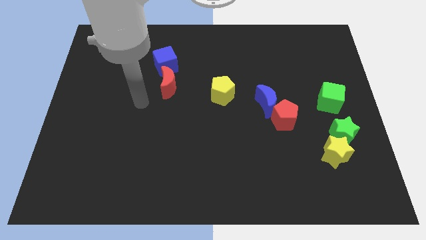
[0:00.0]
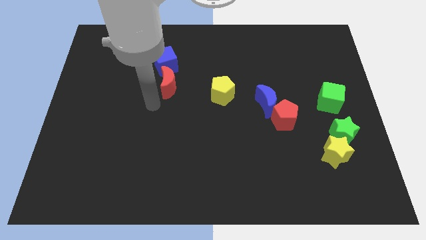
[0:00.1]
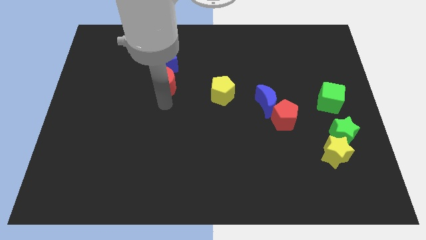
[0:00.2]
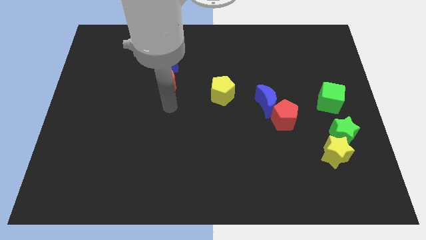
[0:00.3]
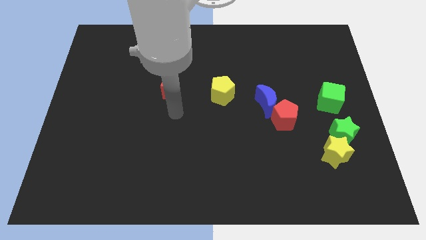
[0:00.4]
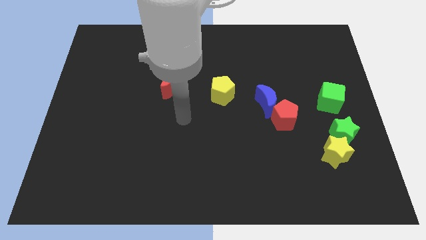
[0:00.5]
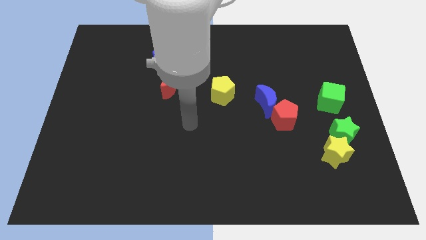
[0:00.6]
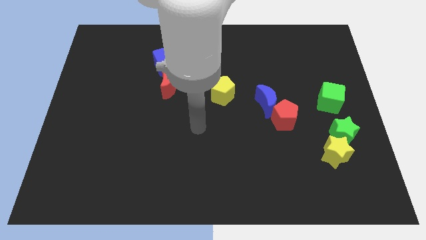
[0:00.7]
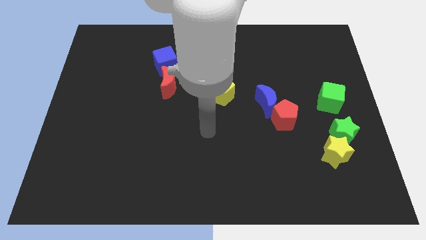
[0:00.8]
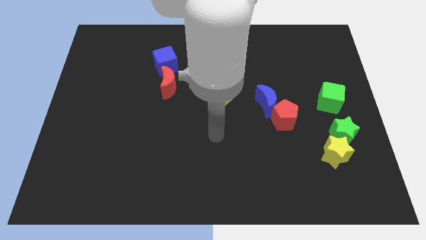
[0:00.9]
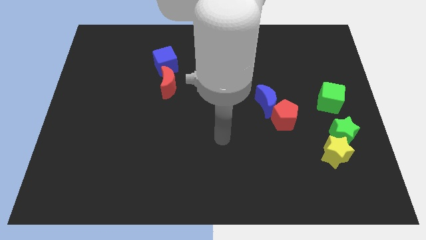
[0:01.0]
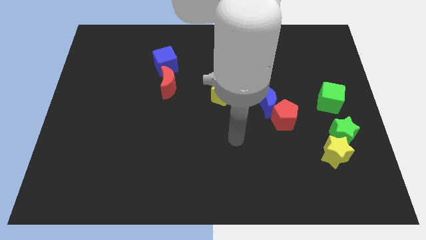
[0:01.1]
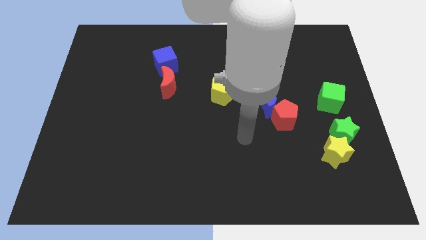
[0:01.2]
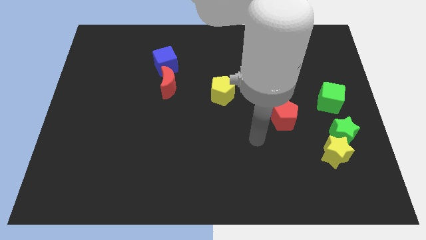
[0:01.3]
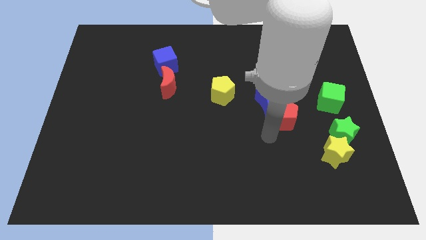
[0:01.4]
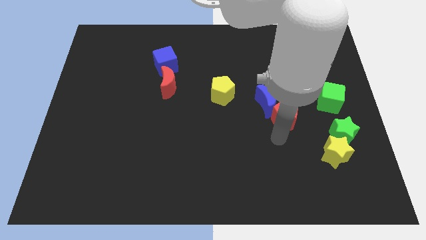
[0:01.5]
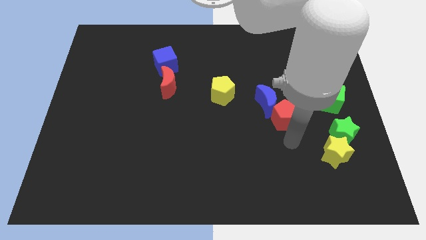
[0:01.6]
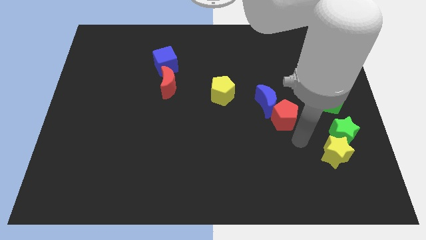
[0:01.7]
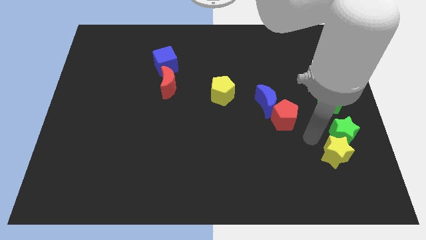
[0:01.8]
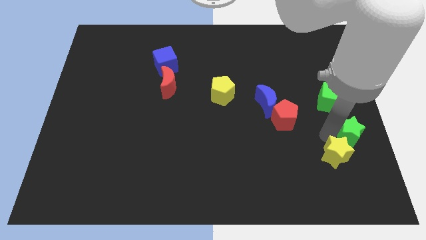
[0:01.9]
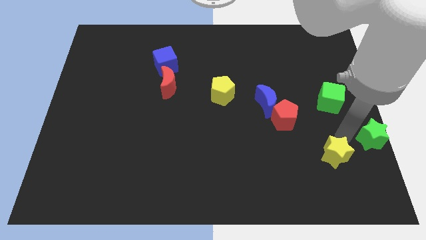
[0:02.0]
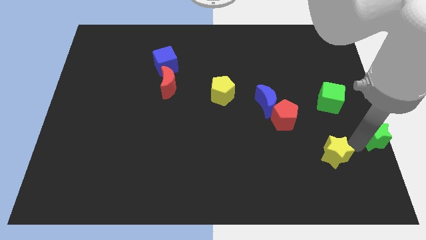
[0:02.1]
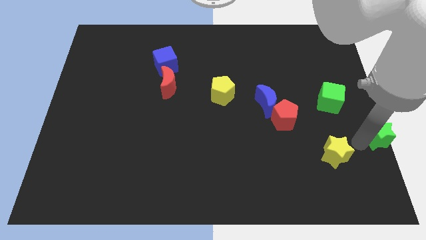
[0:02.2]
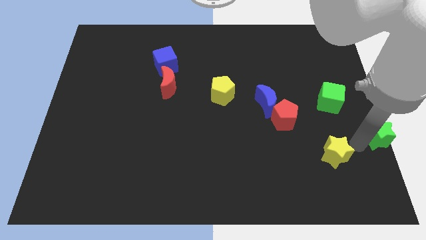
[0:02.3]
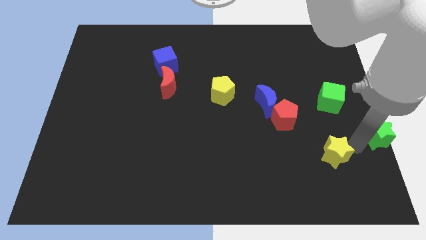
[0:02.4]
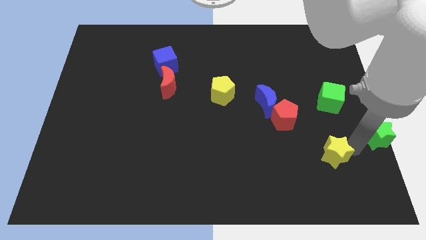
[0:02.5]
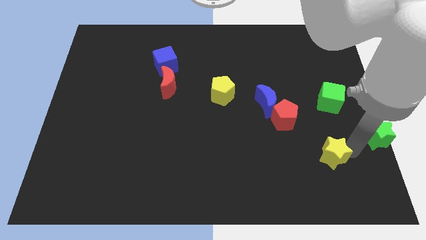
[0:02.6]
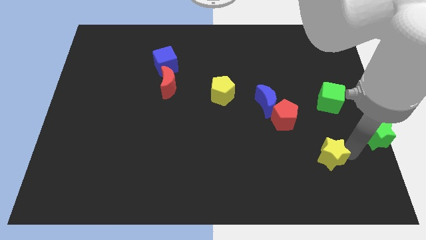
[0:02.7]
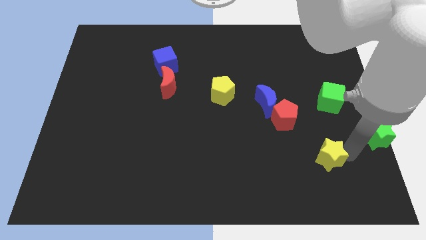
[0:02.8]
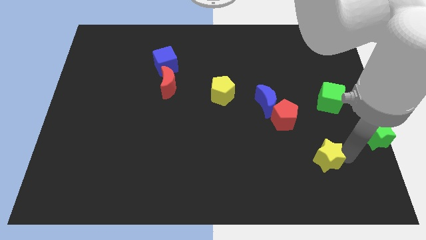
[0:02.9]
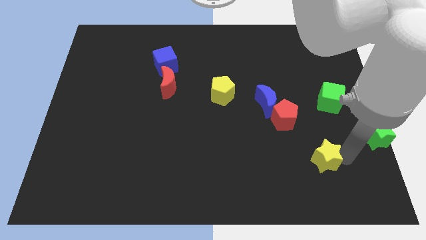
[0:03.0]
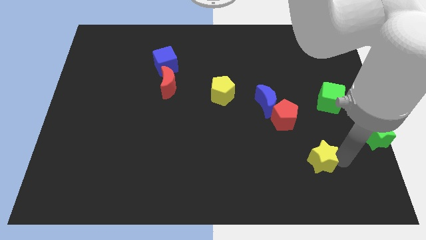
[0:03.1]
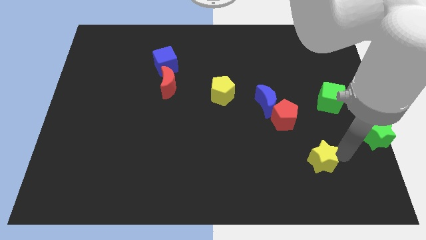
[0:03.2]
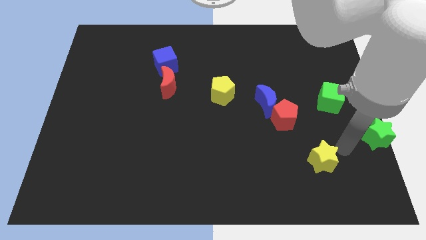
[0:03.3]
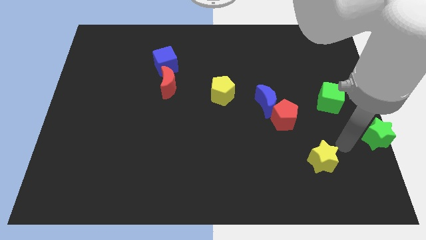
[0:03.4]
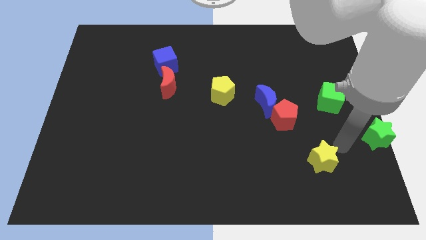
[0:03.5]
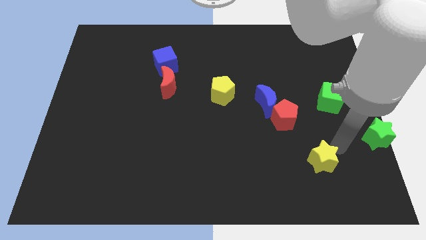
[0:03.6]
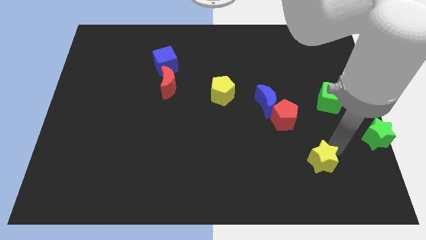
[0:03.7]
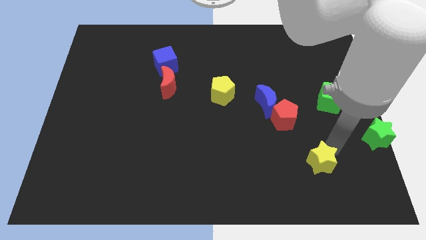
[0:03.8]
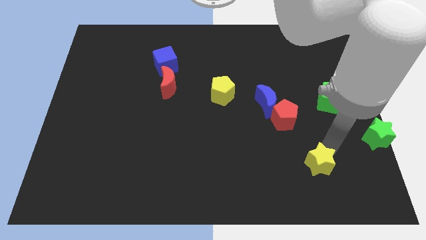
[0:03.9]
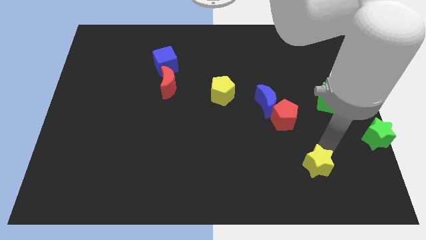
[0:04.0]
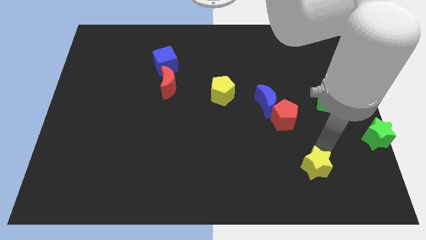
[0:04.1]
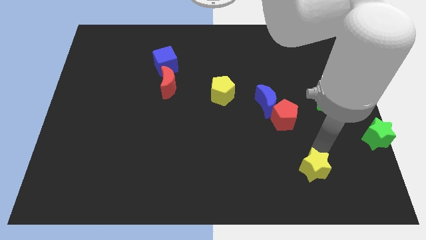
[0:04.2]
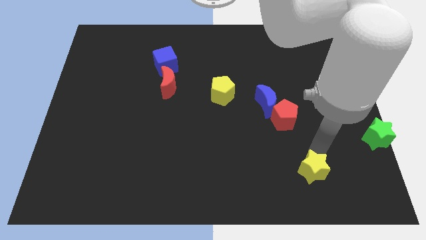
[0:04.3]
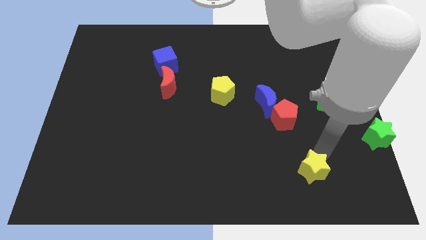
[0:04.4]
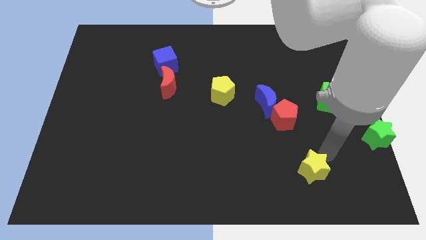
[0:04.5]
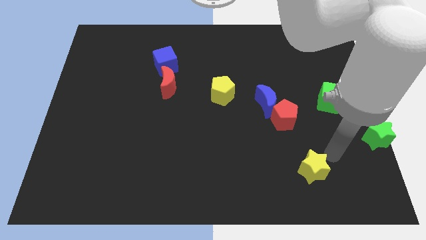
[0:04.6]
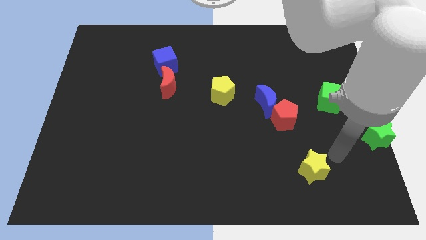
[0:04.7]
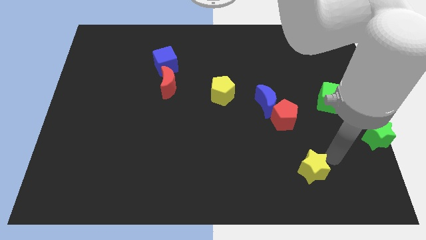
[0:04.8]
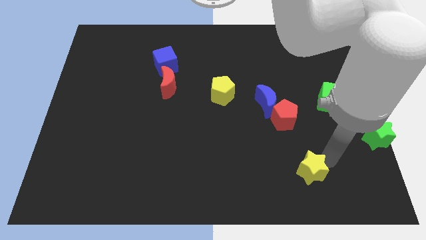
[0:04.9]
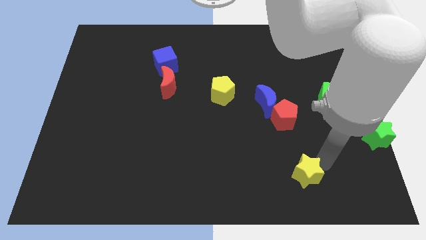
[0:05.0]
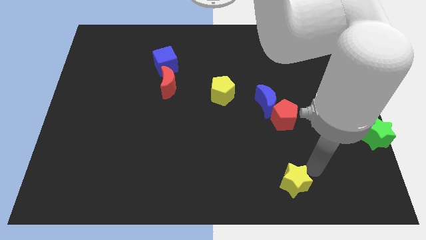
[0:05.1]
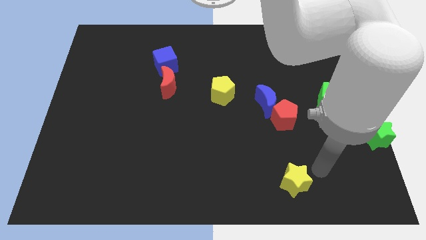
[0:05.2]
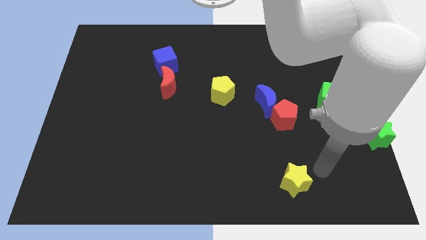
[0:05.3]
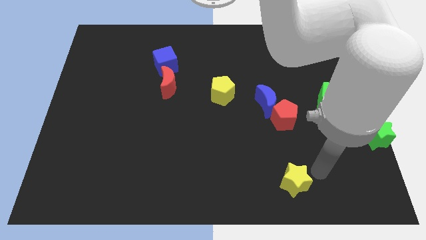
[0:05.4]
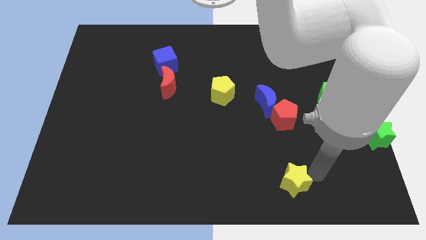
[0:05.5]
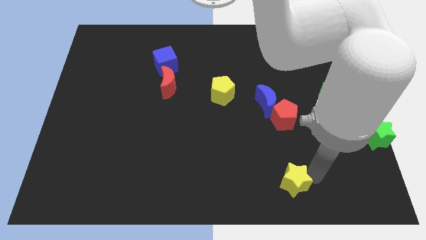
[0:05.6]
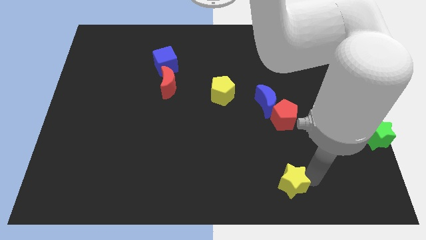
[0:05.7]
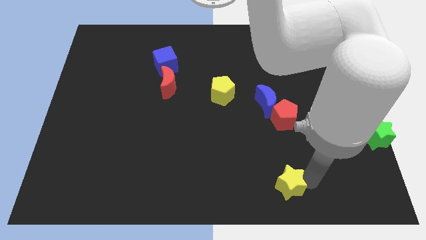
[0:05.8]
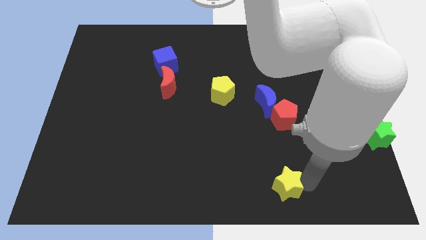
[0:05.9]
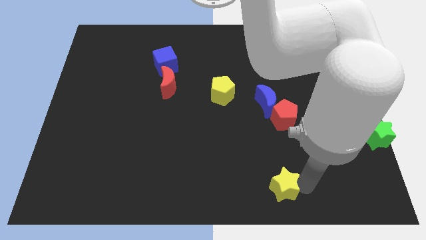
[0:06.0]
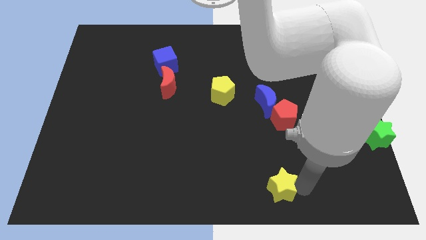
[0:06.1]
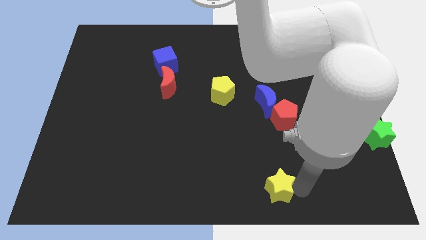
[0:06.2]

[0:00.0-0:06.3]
put the yellow star to the bottom

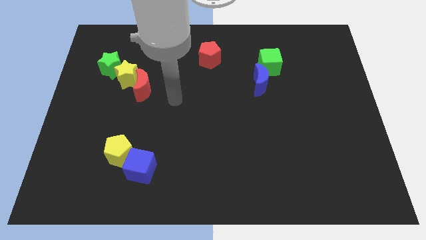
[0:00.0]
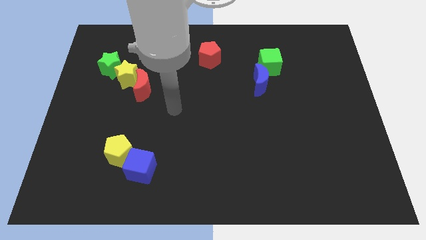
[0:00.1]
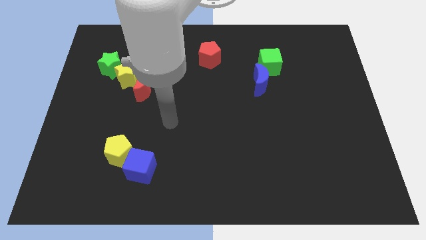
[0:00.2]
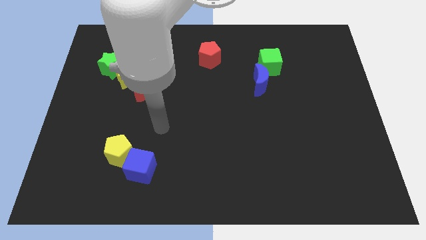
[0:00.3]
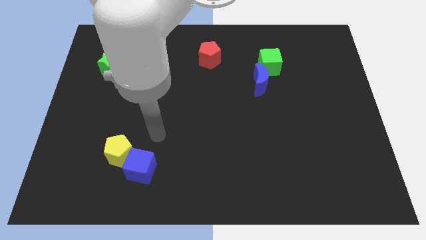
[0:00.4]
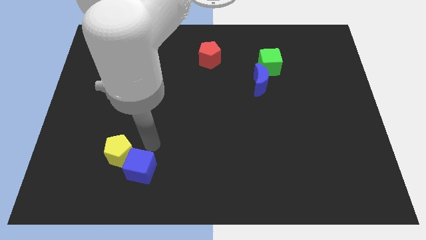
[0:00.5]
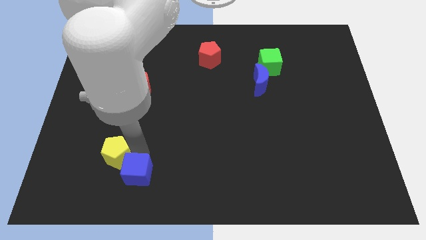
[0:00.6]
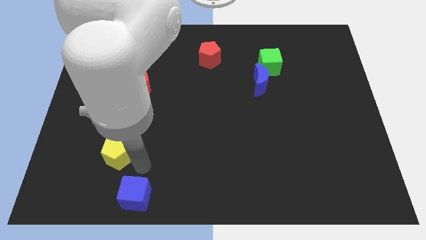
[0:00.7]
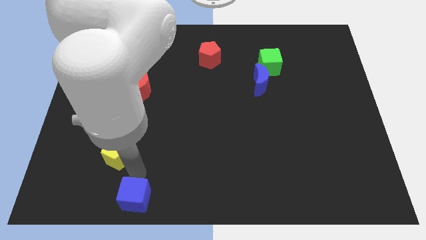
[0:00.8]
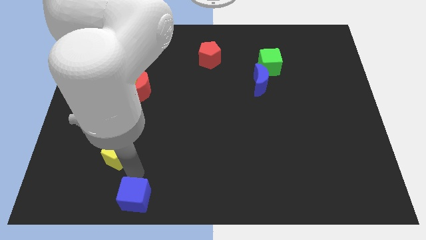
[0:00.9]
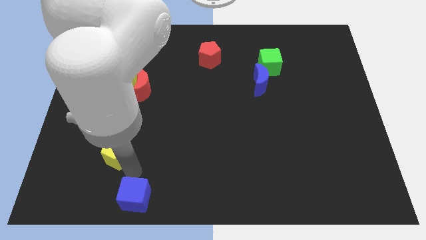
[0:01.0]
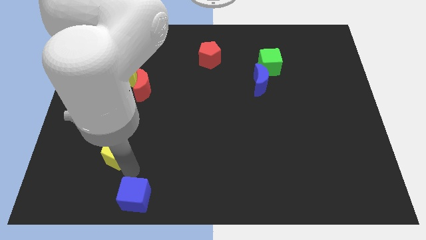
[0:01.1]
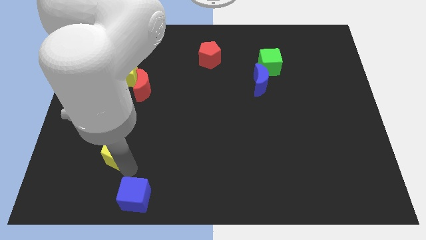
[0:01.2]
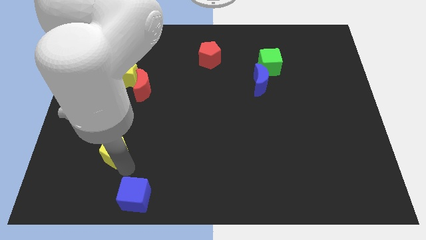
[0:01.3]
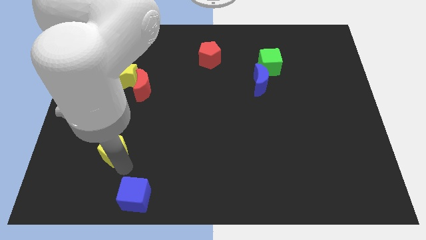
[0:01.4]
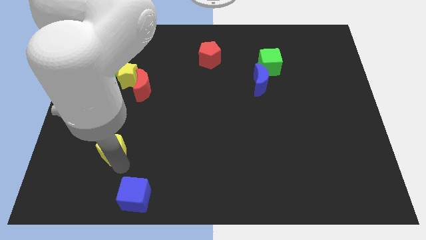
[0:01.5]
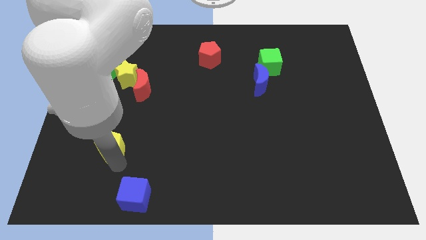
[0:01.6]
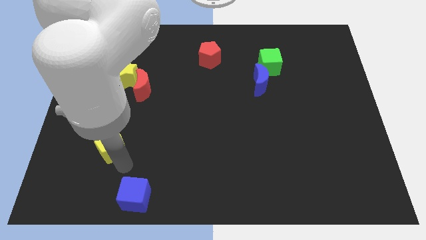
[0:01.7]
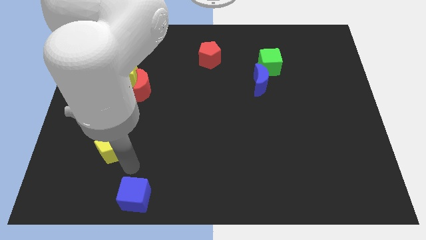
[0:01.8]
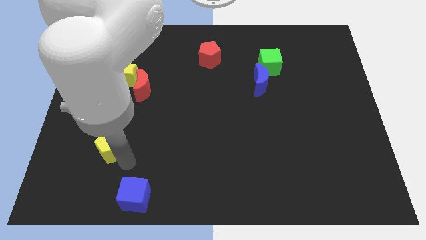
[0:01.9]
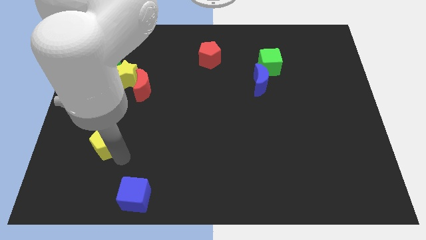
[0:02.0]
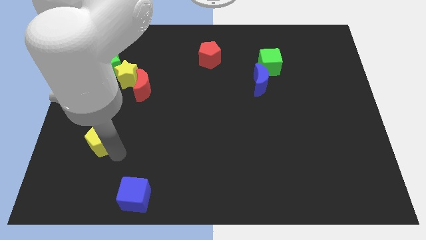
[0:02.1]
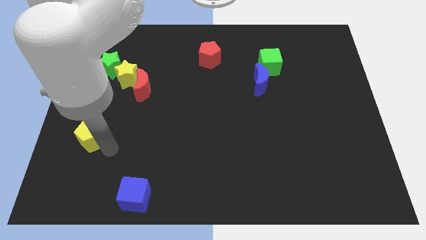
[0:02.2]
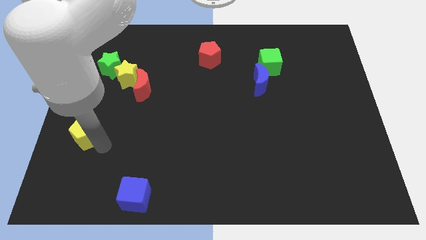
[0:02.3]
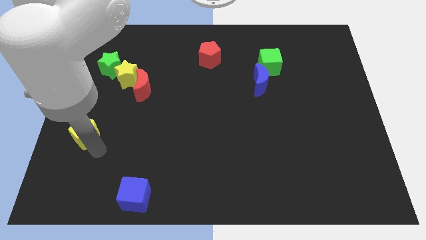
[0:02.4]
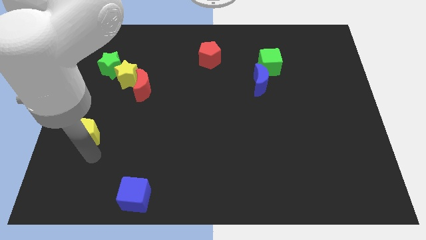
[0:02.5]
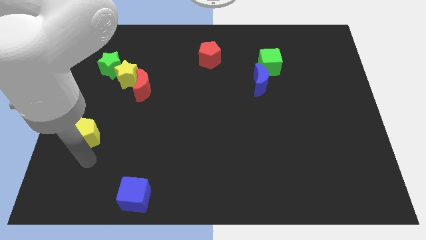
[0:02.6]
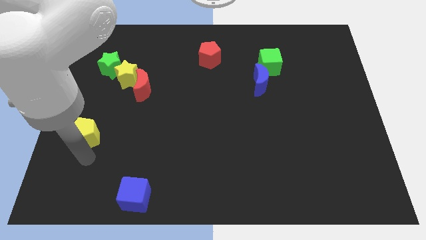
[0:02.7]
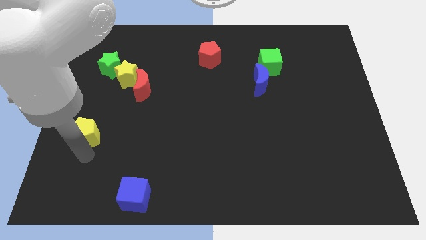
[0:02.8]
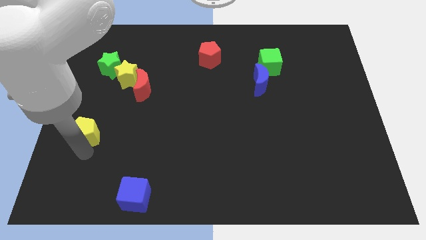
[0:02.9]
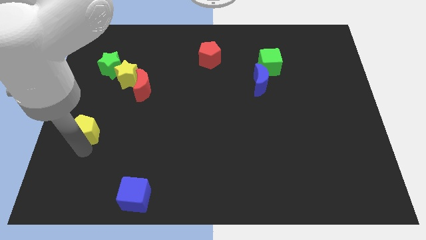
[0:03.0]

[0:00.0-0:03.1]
put the yellow pentagon to the left side of the board
